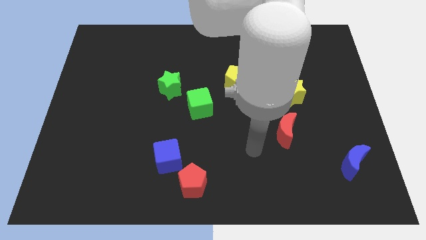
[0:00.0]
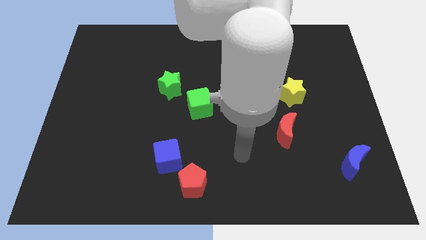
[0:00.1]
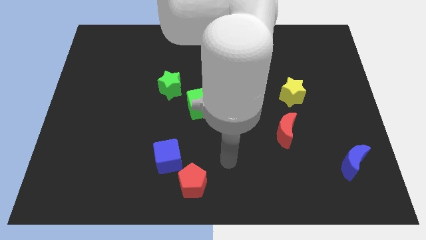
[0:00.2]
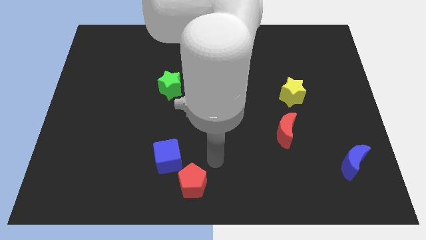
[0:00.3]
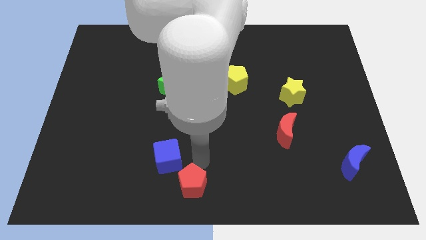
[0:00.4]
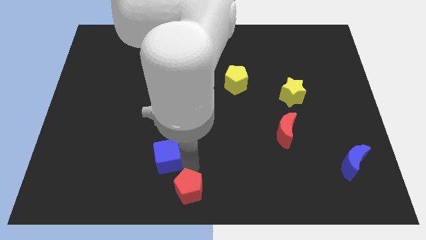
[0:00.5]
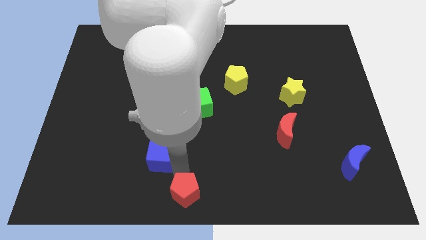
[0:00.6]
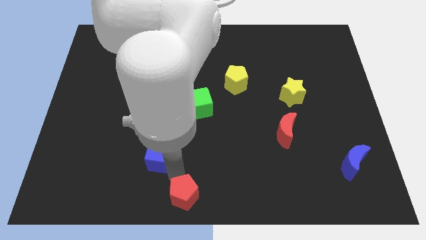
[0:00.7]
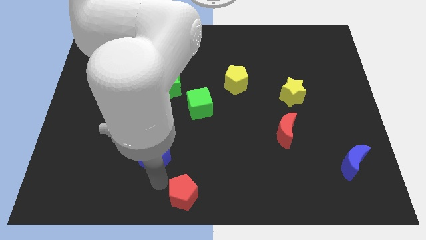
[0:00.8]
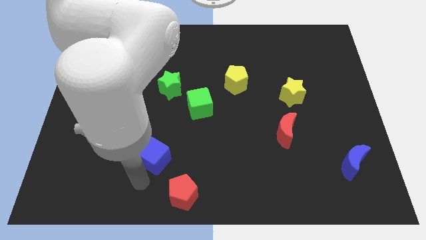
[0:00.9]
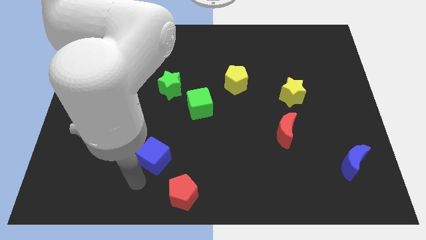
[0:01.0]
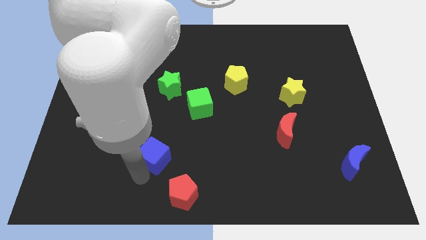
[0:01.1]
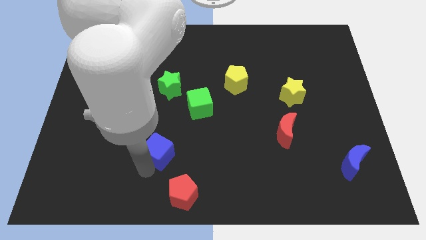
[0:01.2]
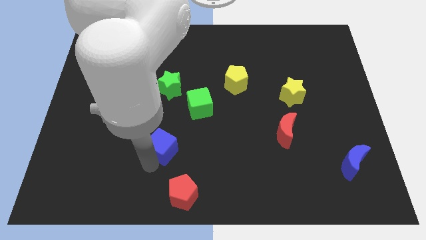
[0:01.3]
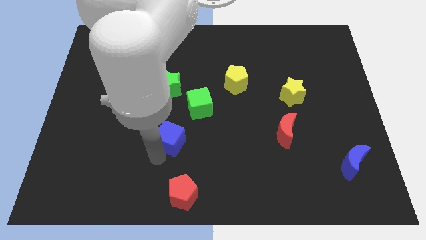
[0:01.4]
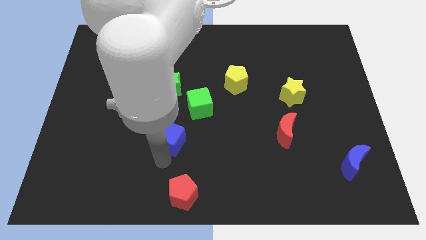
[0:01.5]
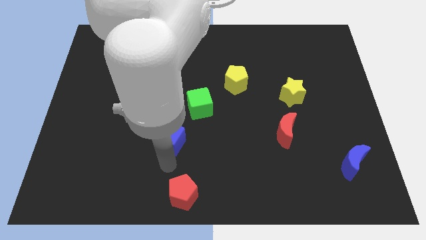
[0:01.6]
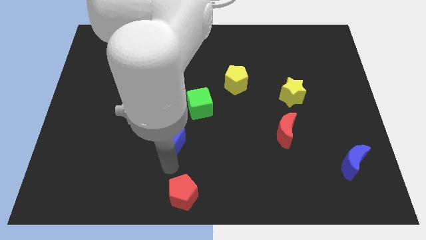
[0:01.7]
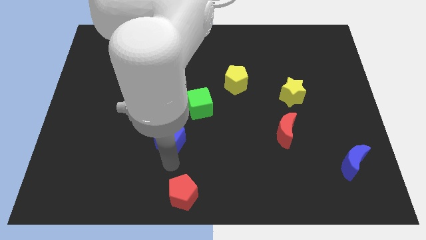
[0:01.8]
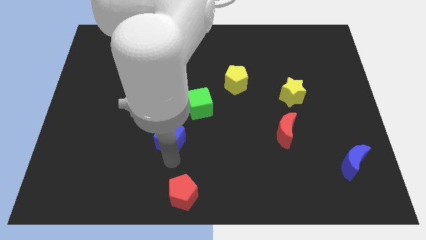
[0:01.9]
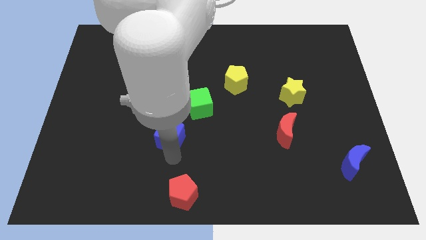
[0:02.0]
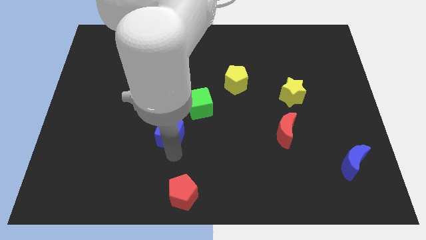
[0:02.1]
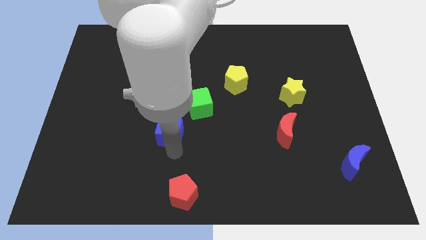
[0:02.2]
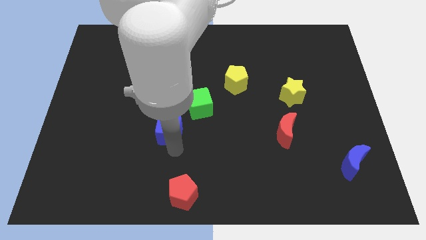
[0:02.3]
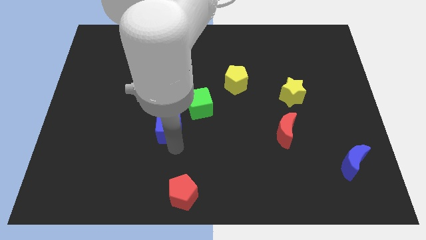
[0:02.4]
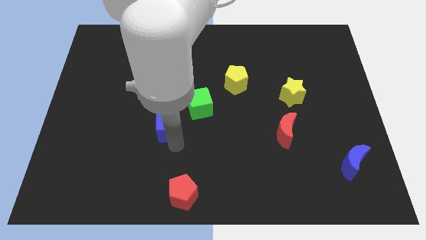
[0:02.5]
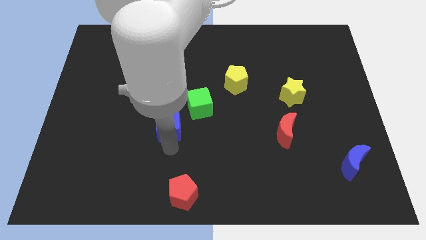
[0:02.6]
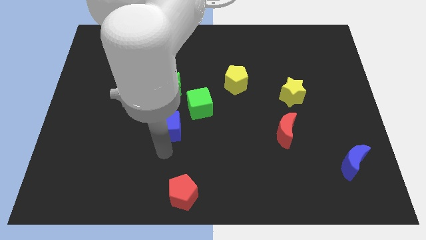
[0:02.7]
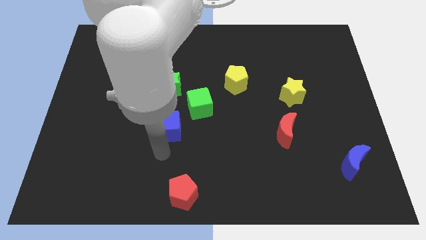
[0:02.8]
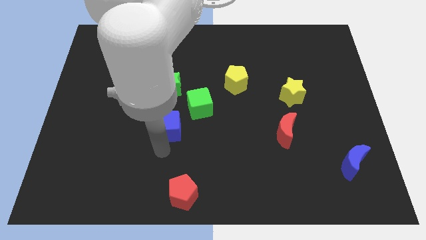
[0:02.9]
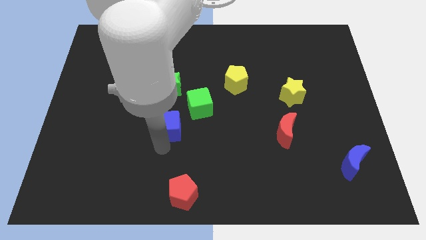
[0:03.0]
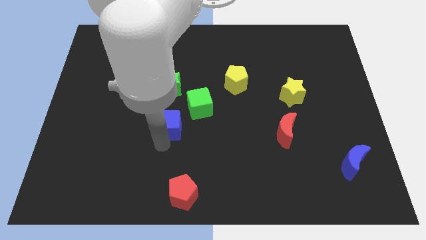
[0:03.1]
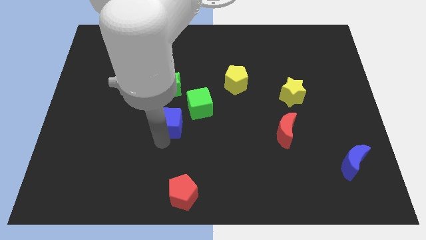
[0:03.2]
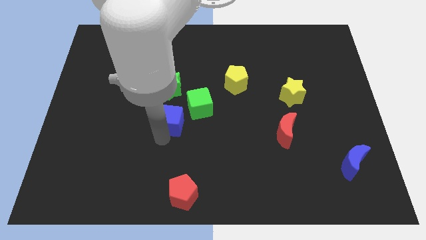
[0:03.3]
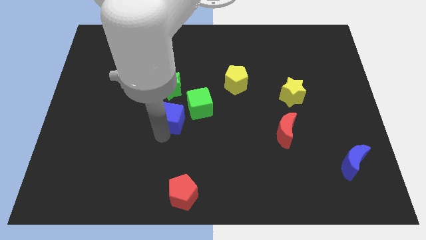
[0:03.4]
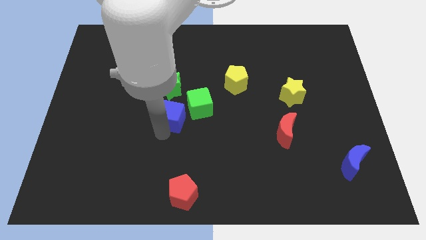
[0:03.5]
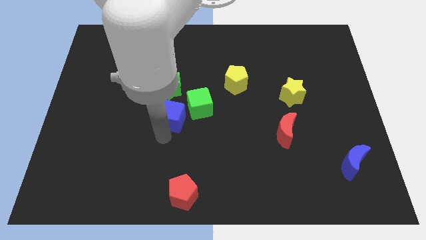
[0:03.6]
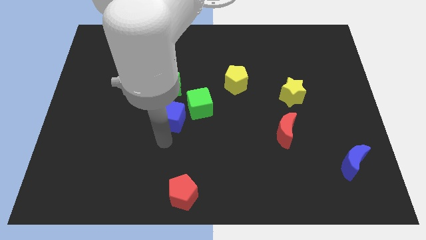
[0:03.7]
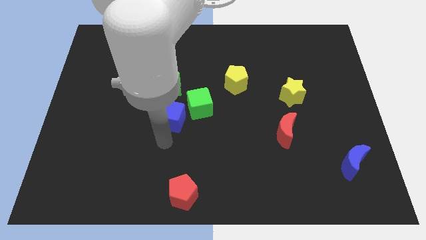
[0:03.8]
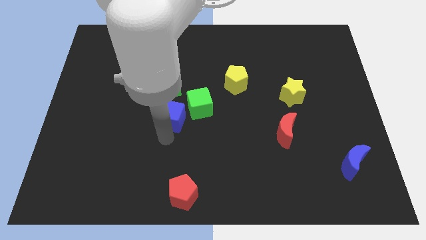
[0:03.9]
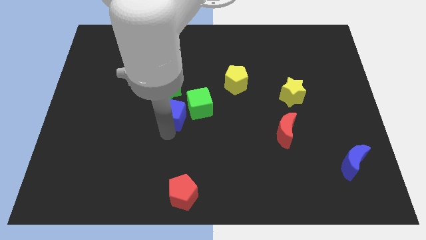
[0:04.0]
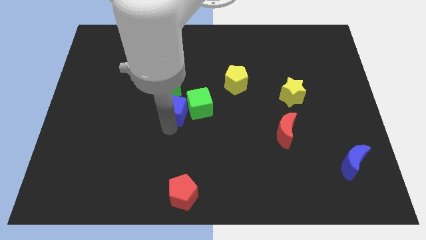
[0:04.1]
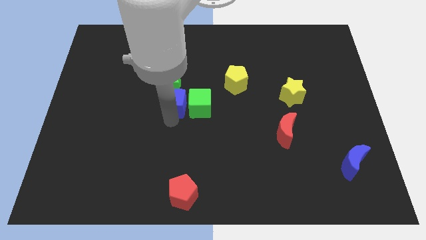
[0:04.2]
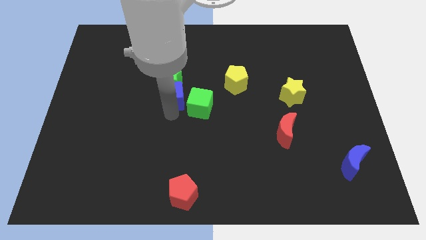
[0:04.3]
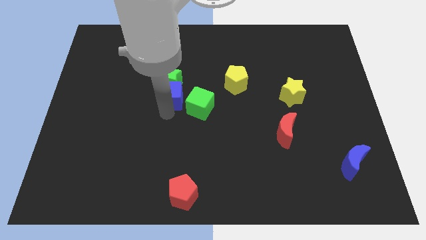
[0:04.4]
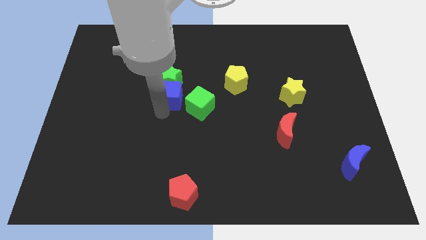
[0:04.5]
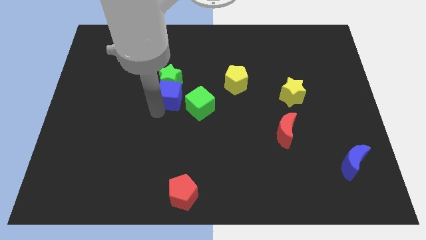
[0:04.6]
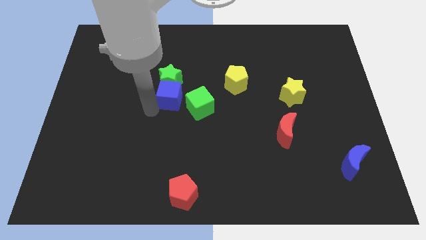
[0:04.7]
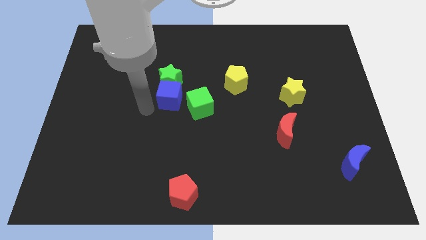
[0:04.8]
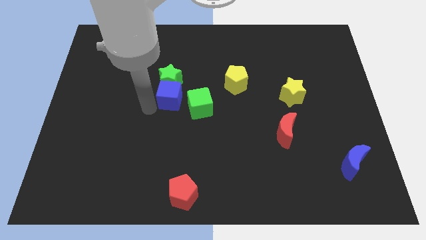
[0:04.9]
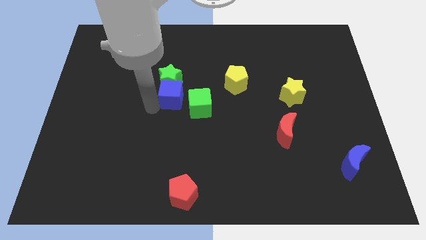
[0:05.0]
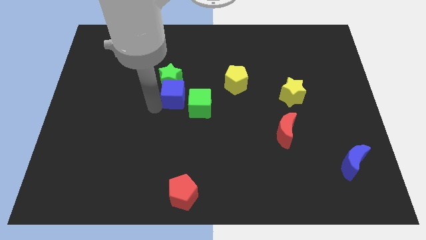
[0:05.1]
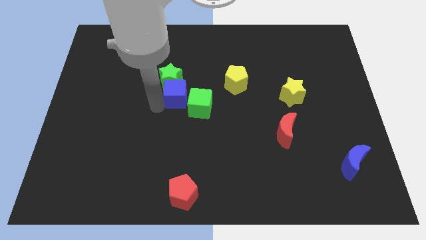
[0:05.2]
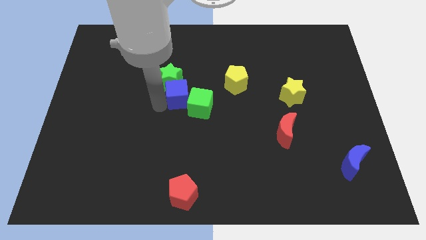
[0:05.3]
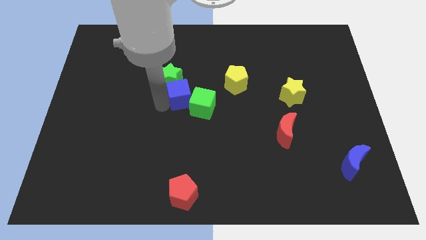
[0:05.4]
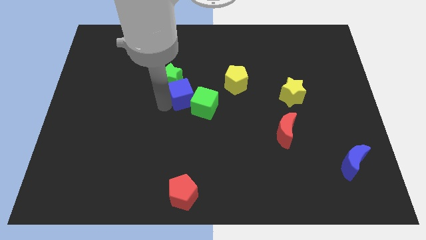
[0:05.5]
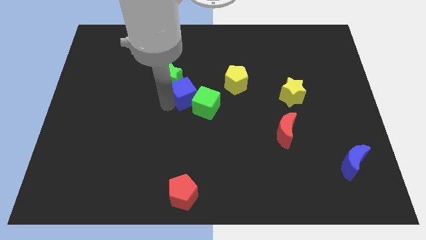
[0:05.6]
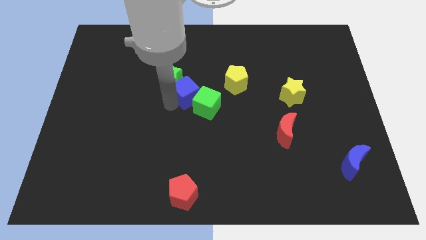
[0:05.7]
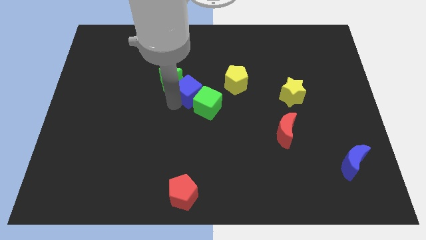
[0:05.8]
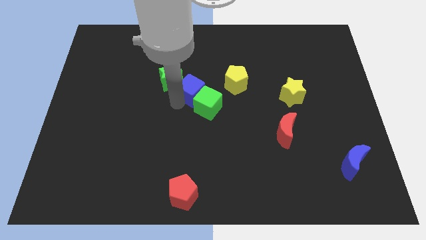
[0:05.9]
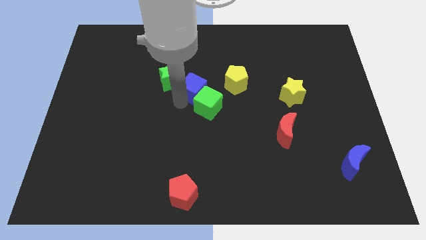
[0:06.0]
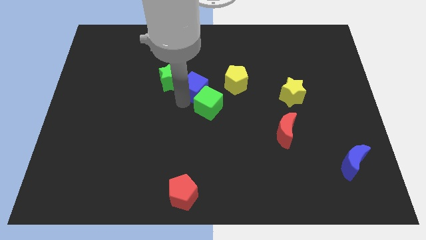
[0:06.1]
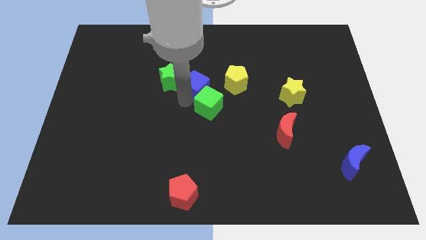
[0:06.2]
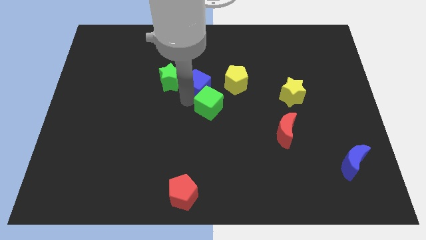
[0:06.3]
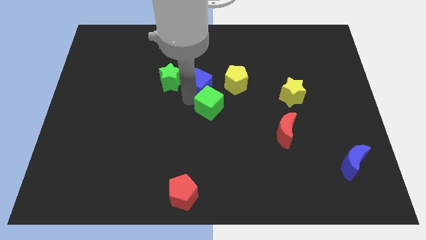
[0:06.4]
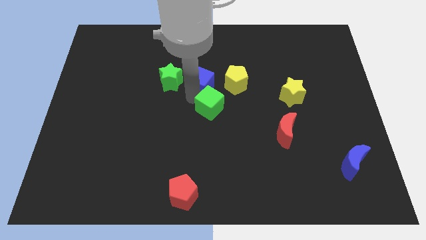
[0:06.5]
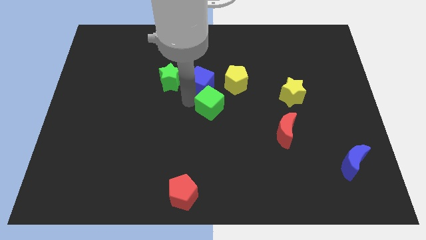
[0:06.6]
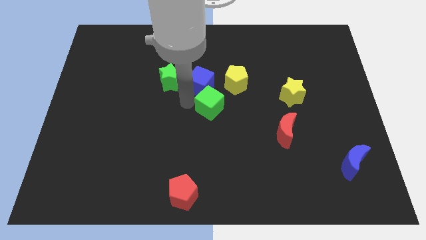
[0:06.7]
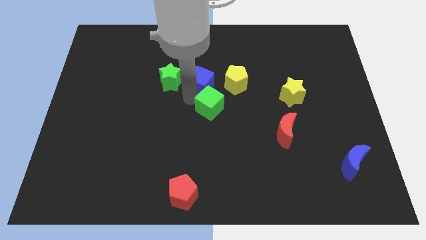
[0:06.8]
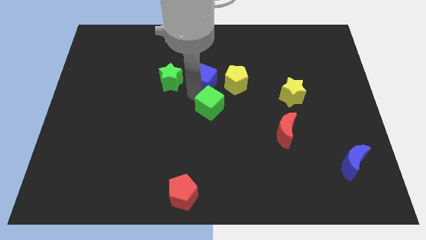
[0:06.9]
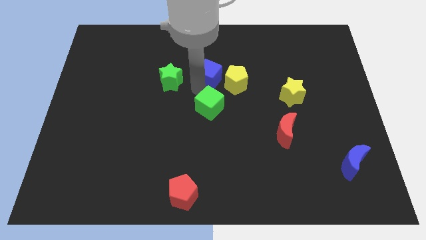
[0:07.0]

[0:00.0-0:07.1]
put the blue cube diagonally up and to the left of the yellow pentagon
